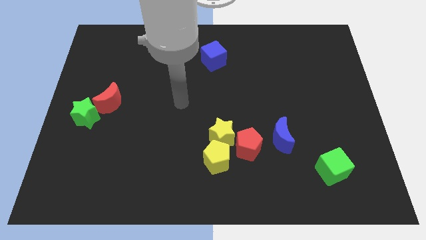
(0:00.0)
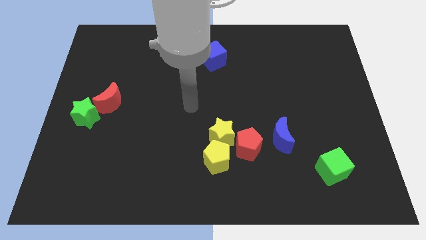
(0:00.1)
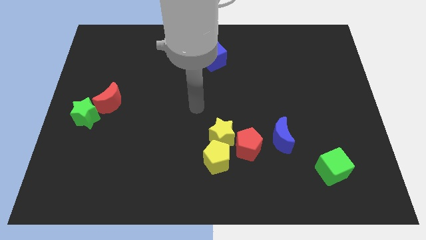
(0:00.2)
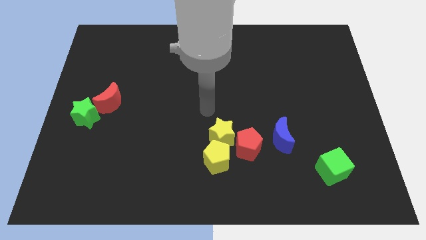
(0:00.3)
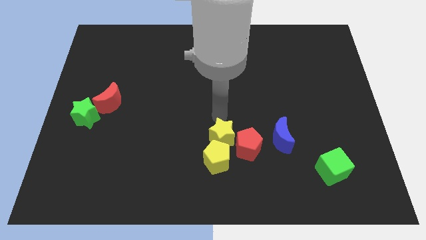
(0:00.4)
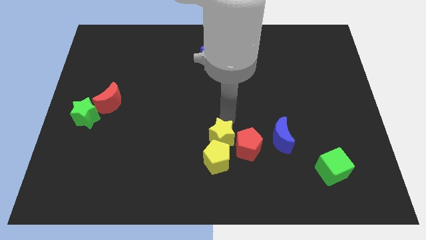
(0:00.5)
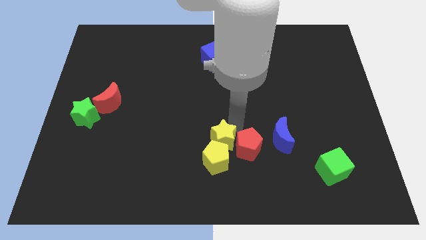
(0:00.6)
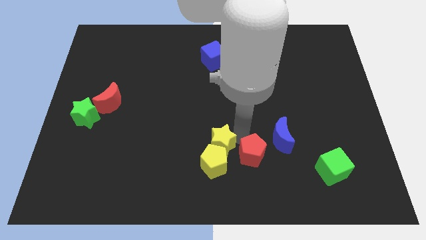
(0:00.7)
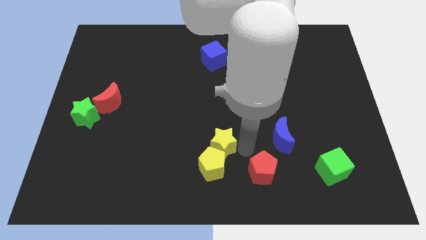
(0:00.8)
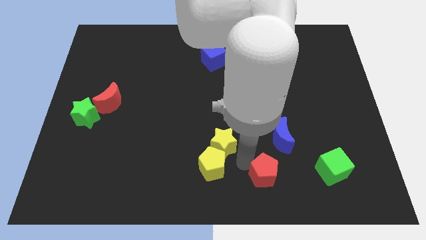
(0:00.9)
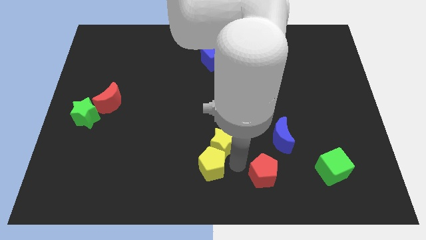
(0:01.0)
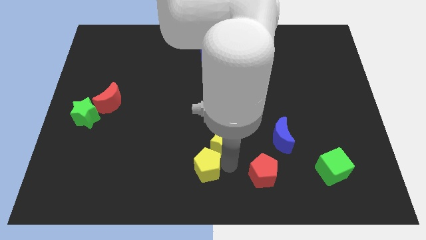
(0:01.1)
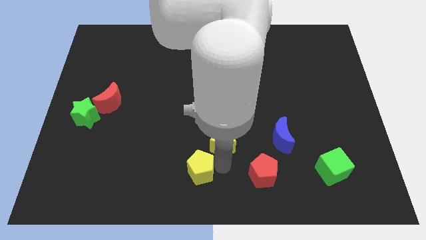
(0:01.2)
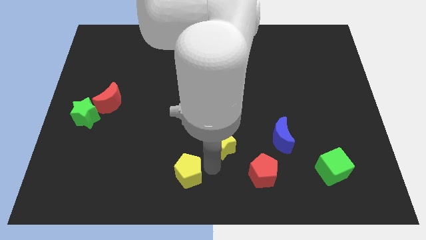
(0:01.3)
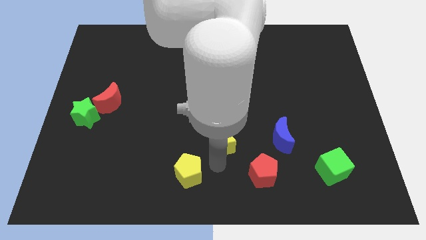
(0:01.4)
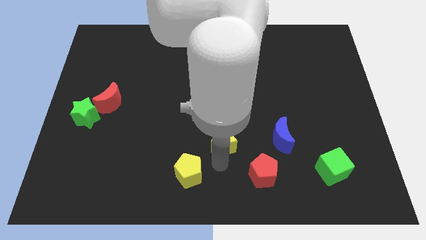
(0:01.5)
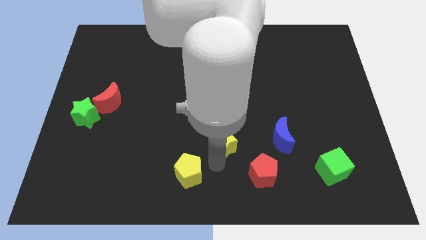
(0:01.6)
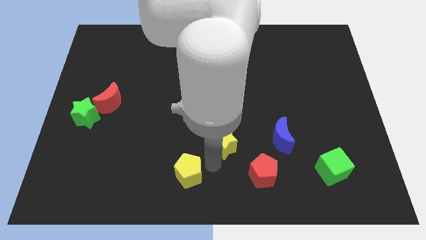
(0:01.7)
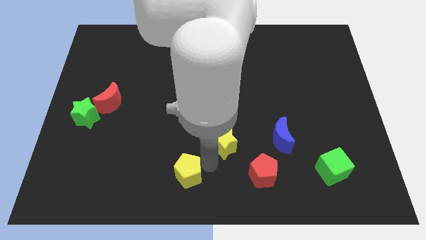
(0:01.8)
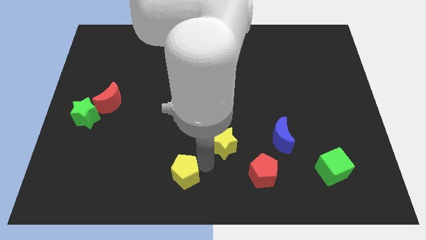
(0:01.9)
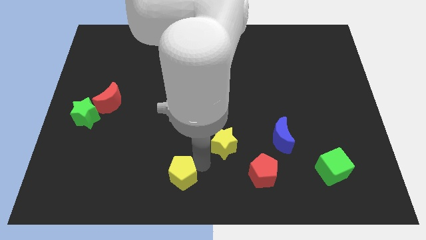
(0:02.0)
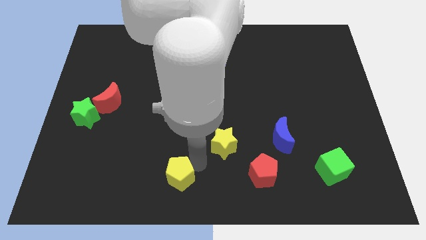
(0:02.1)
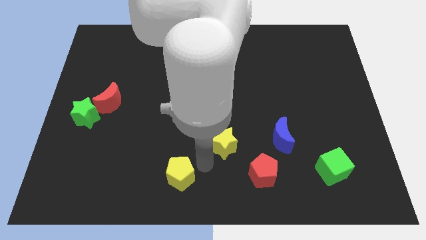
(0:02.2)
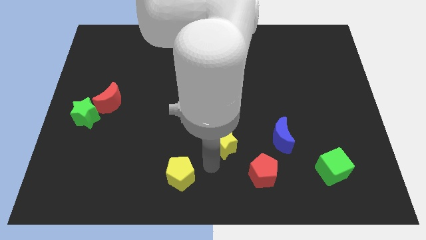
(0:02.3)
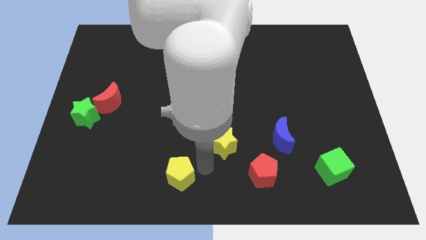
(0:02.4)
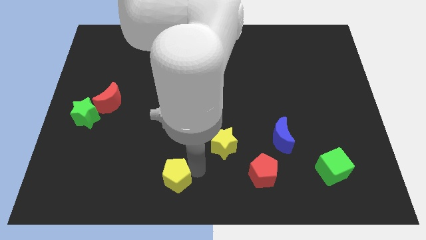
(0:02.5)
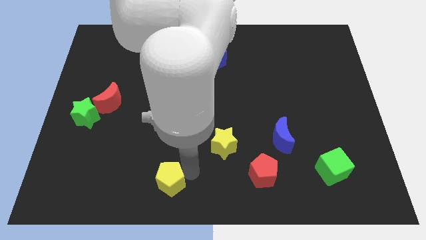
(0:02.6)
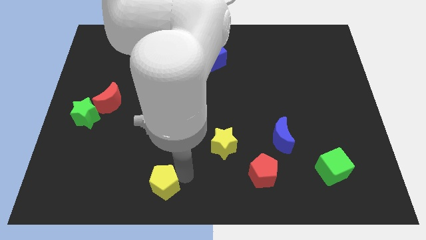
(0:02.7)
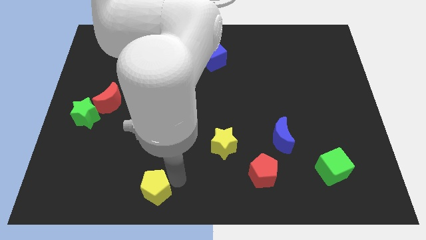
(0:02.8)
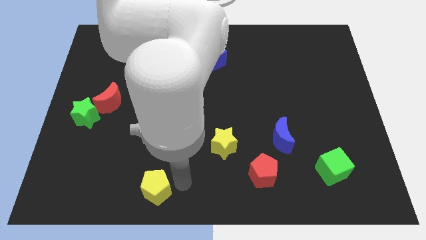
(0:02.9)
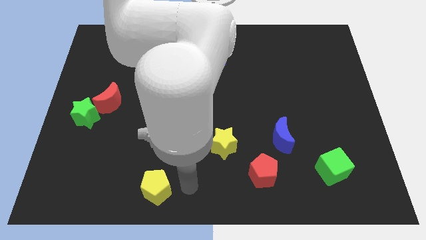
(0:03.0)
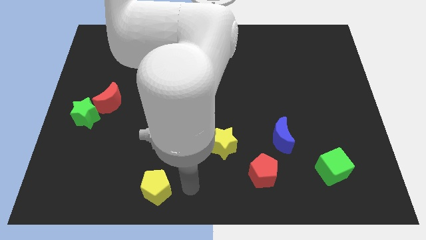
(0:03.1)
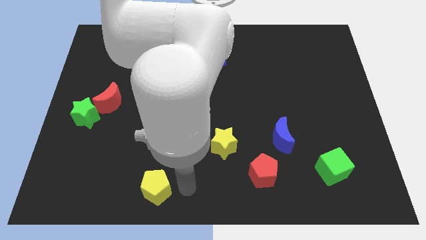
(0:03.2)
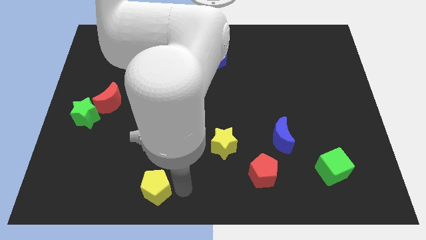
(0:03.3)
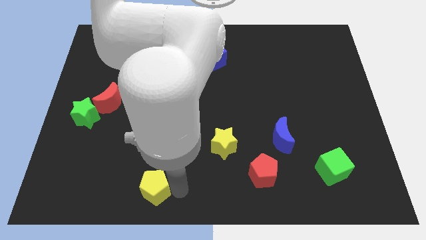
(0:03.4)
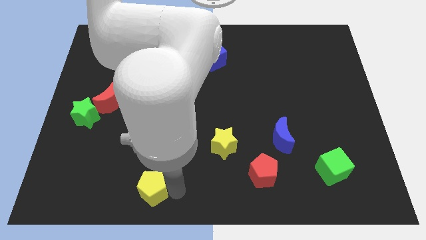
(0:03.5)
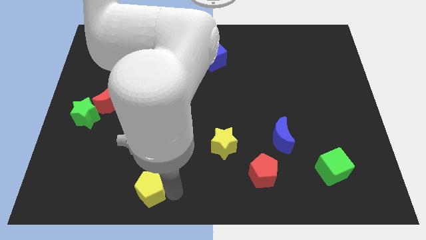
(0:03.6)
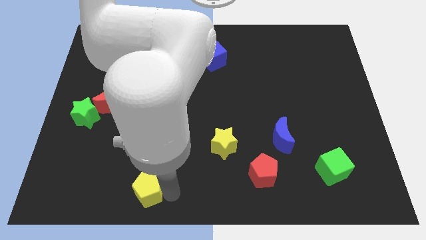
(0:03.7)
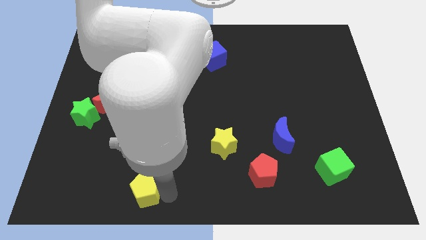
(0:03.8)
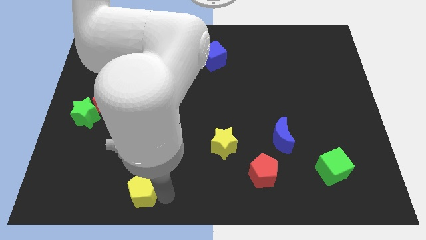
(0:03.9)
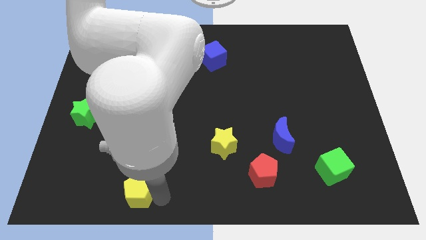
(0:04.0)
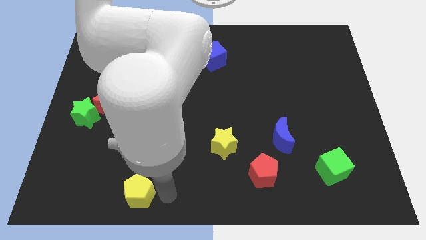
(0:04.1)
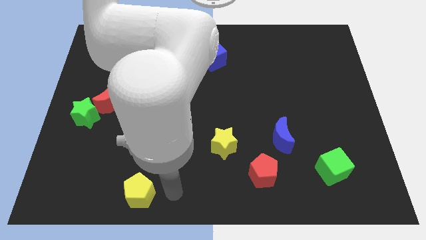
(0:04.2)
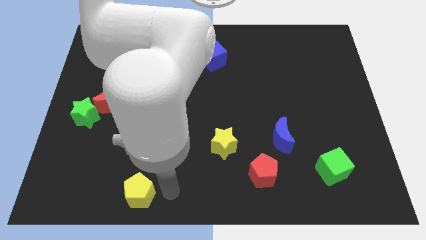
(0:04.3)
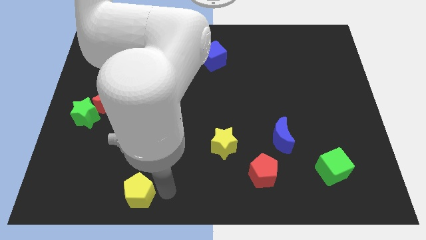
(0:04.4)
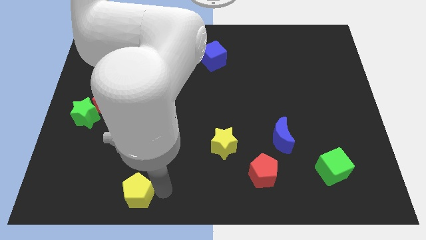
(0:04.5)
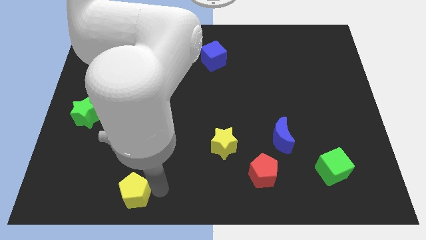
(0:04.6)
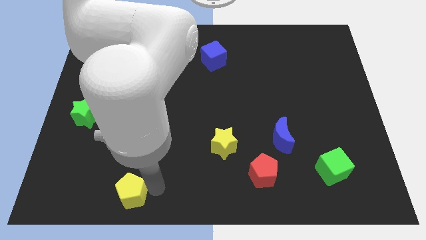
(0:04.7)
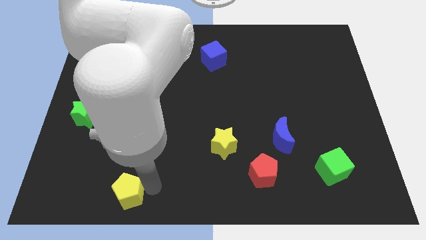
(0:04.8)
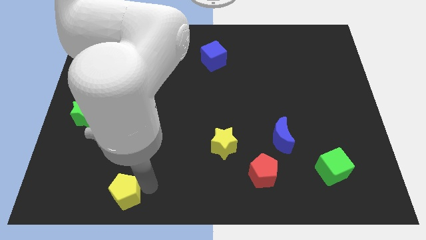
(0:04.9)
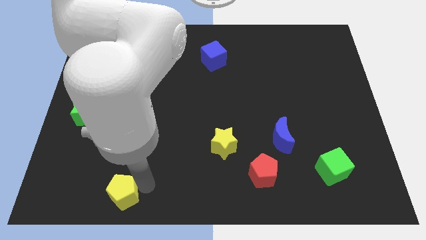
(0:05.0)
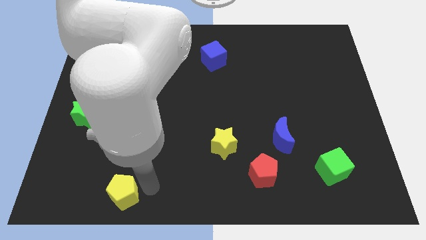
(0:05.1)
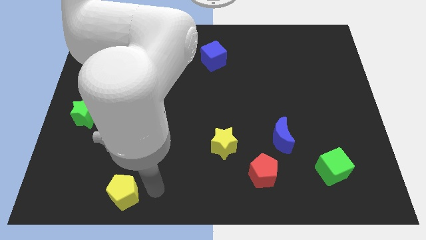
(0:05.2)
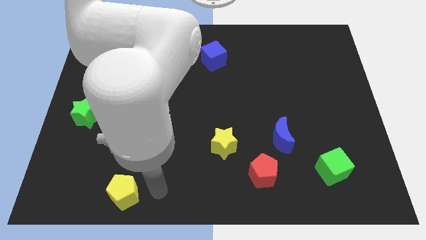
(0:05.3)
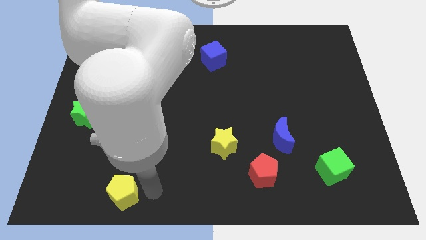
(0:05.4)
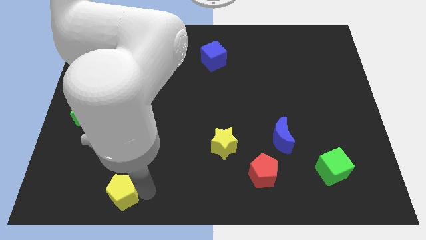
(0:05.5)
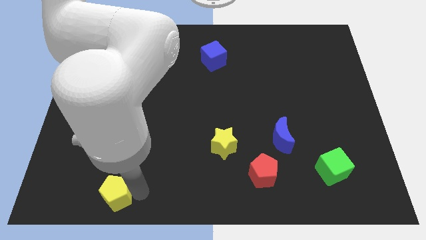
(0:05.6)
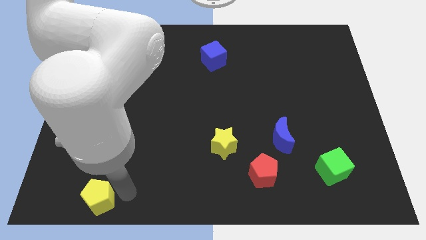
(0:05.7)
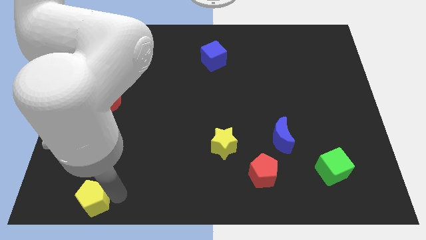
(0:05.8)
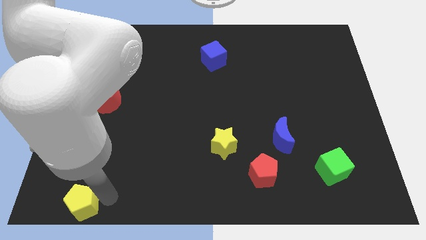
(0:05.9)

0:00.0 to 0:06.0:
move the yellow pentagon to the bottom left

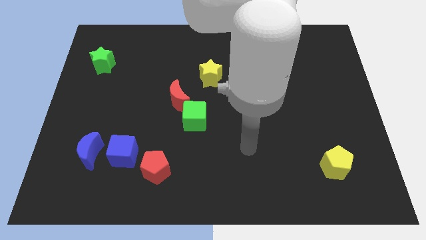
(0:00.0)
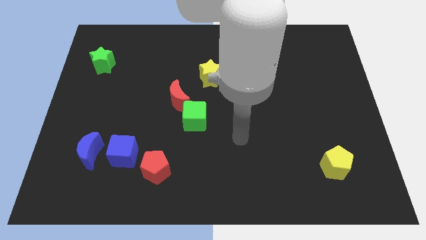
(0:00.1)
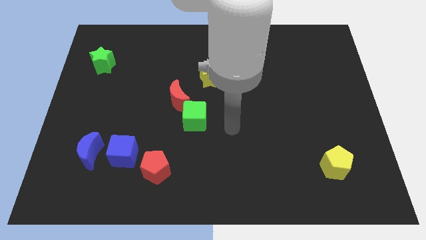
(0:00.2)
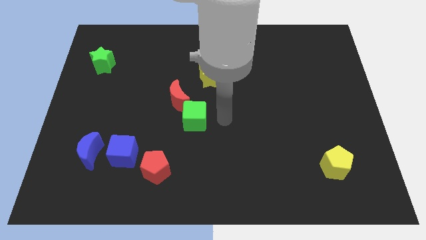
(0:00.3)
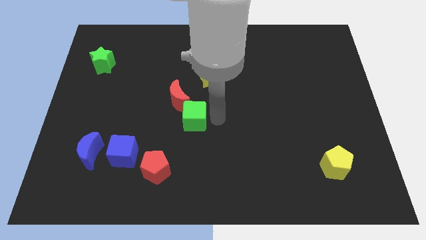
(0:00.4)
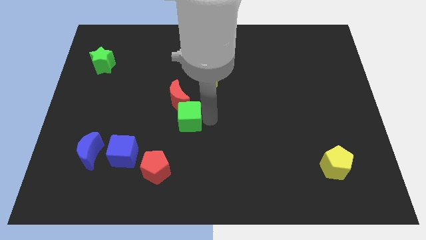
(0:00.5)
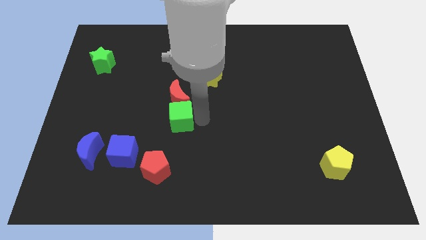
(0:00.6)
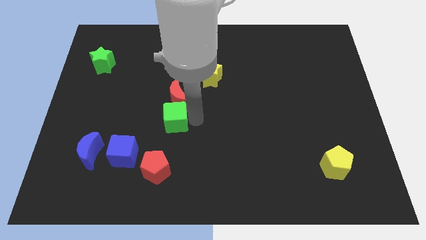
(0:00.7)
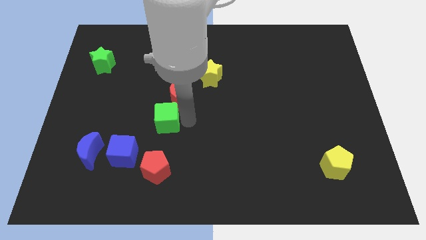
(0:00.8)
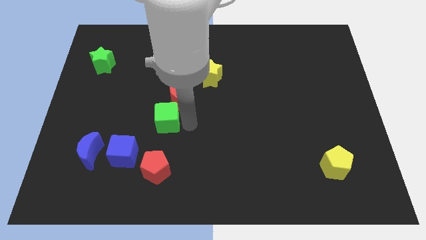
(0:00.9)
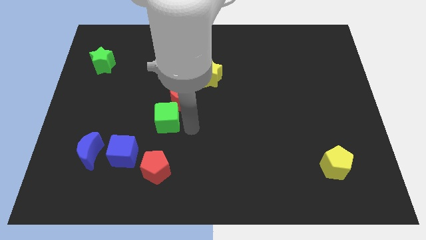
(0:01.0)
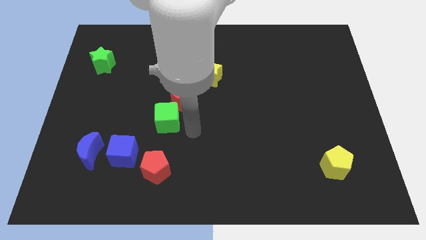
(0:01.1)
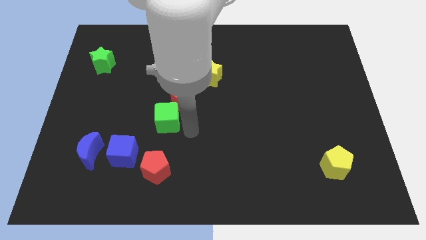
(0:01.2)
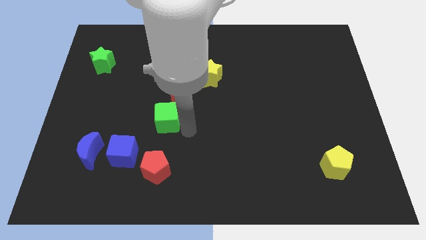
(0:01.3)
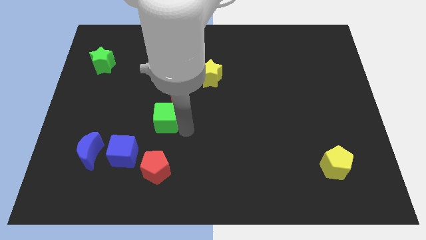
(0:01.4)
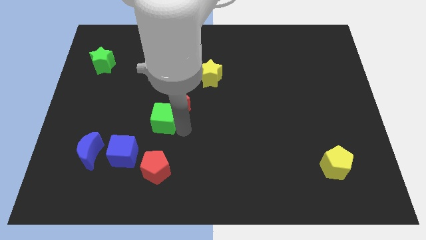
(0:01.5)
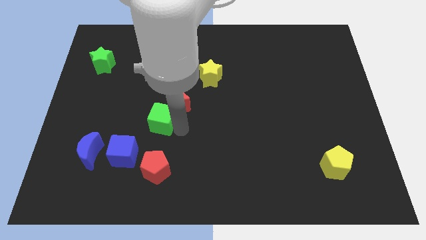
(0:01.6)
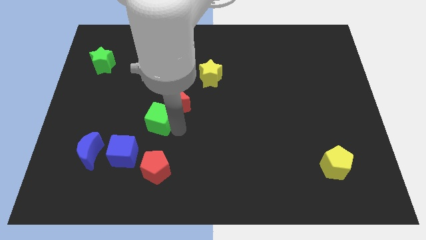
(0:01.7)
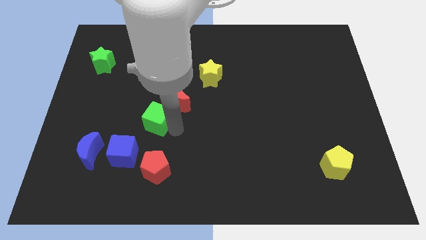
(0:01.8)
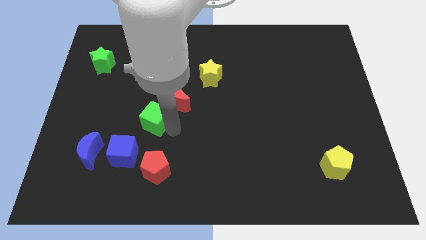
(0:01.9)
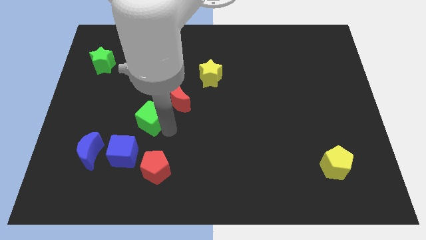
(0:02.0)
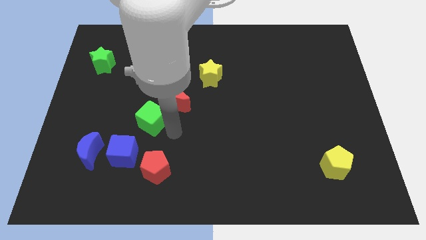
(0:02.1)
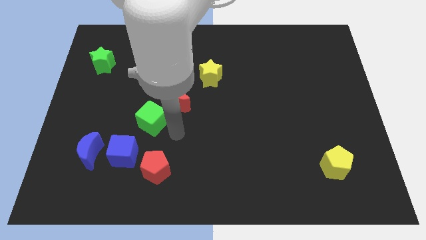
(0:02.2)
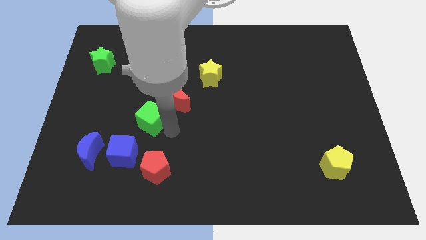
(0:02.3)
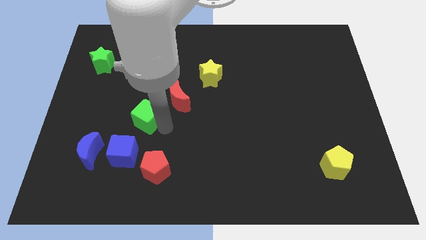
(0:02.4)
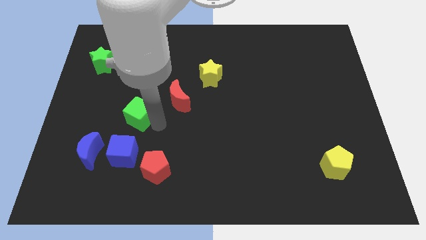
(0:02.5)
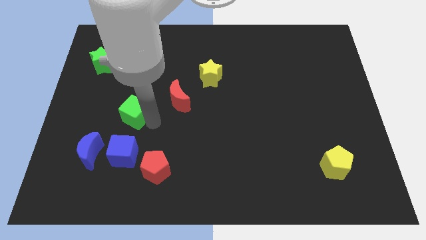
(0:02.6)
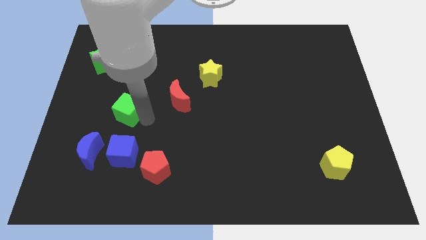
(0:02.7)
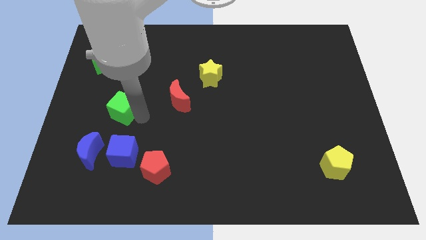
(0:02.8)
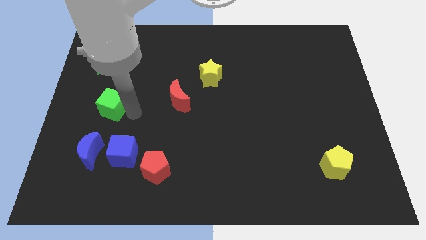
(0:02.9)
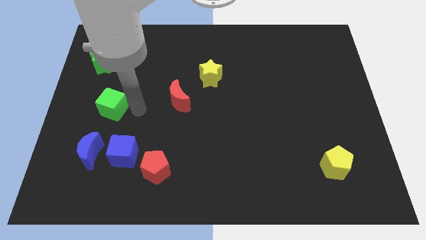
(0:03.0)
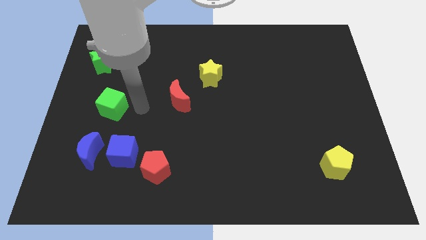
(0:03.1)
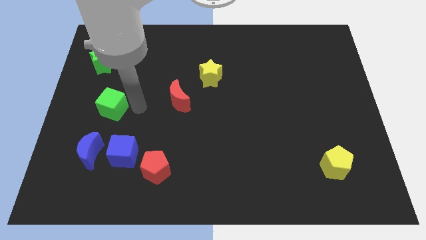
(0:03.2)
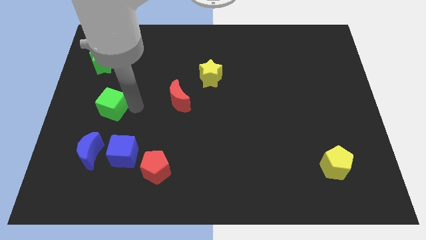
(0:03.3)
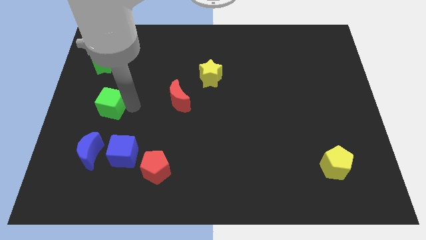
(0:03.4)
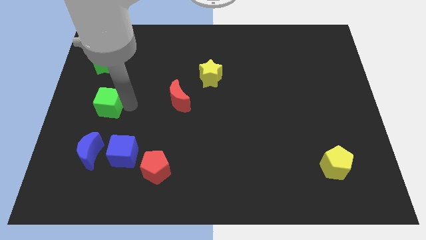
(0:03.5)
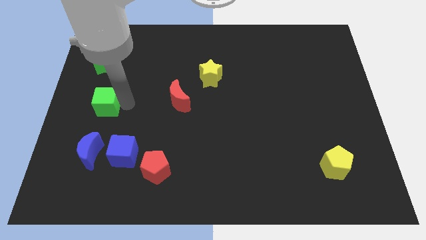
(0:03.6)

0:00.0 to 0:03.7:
move the green cube to the center left
